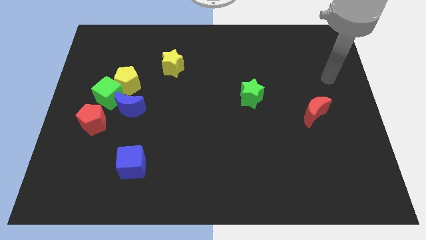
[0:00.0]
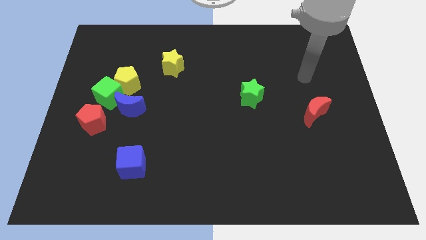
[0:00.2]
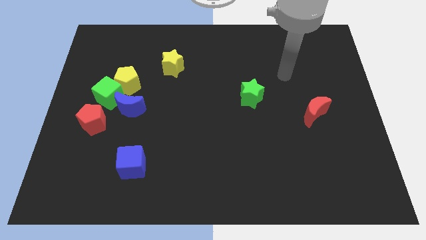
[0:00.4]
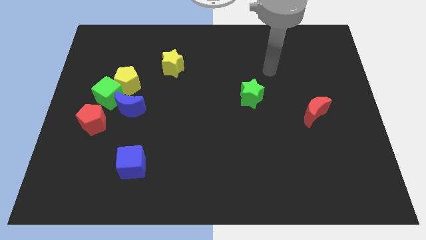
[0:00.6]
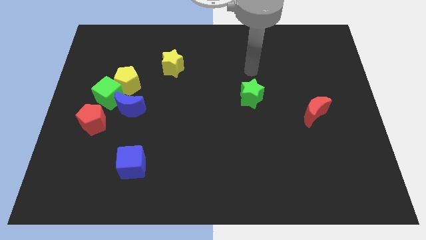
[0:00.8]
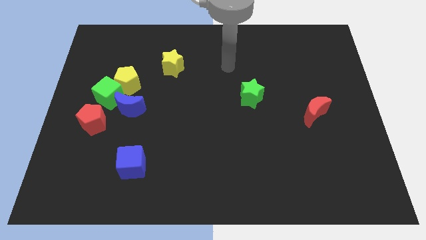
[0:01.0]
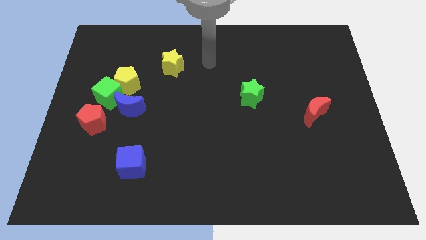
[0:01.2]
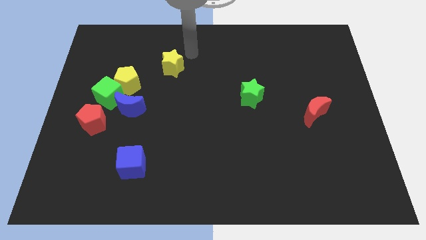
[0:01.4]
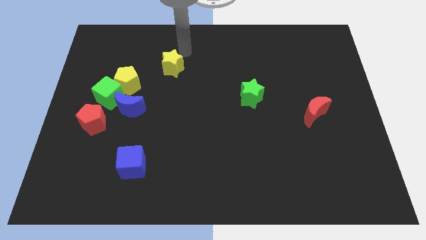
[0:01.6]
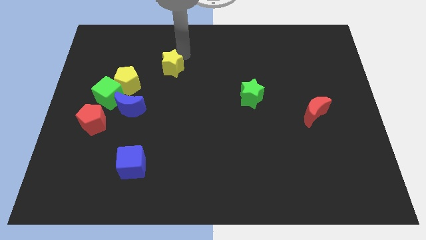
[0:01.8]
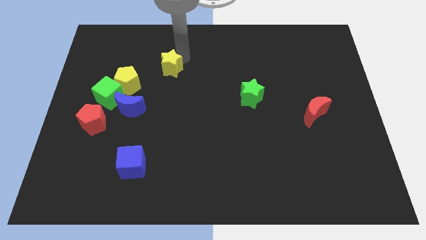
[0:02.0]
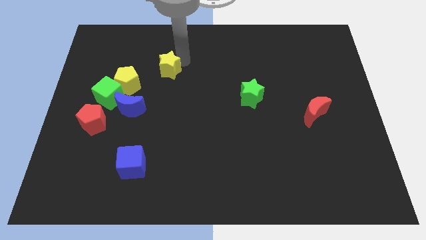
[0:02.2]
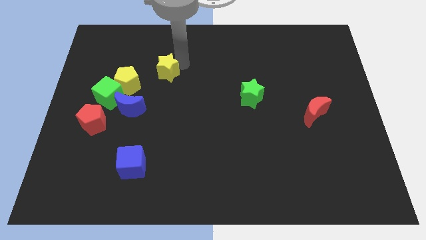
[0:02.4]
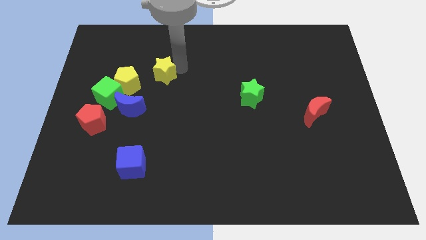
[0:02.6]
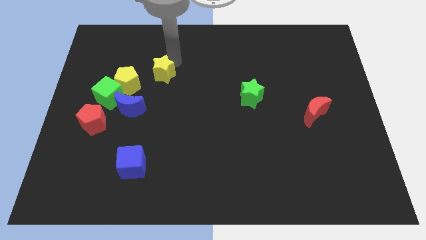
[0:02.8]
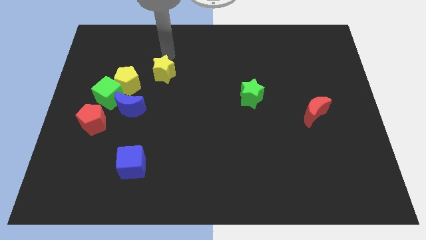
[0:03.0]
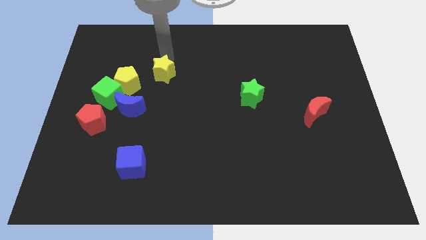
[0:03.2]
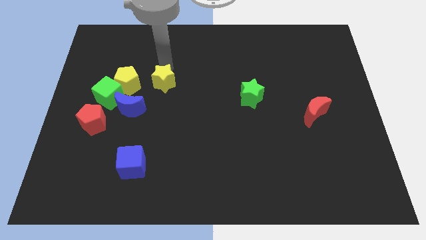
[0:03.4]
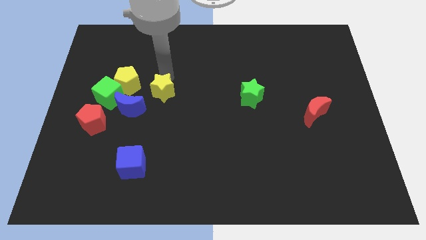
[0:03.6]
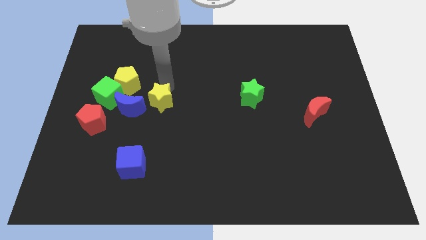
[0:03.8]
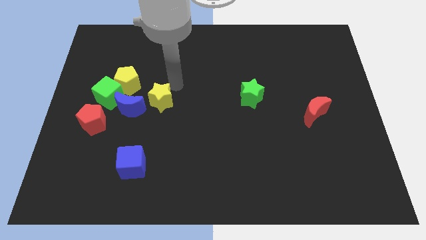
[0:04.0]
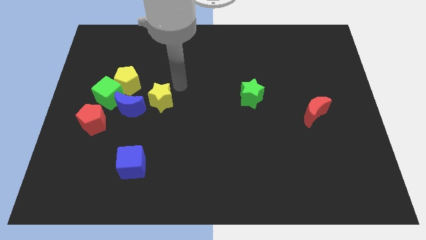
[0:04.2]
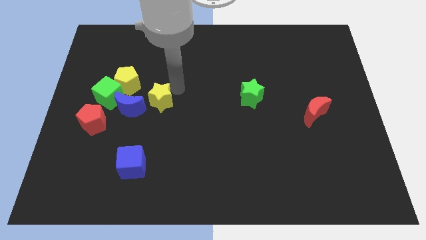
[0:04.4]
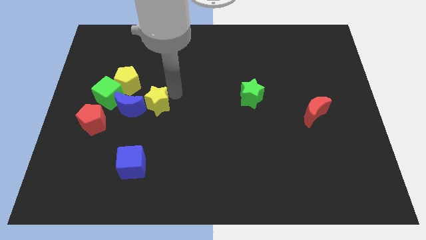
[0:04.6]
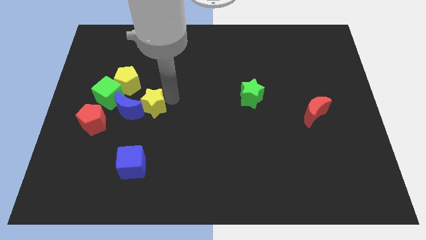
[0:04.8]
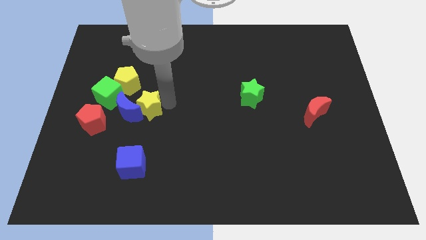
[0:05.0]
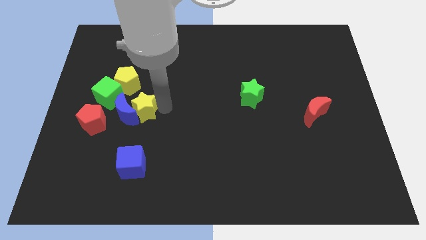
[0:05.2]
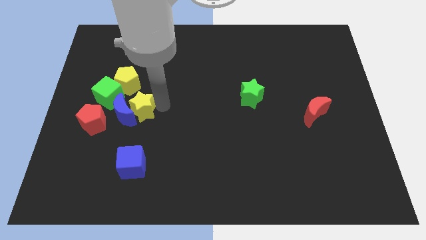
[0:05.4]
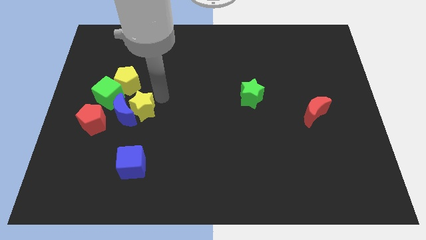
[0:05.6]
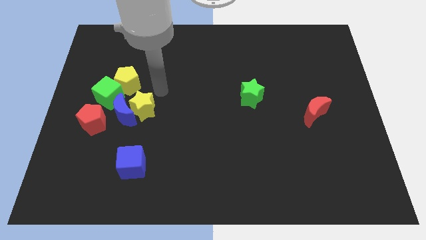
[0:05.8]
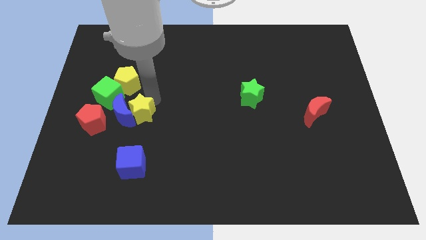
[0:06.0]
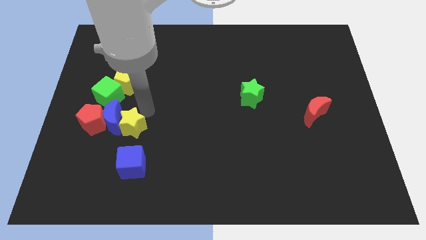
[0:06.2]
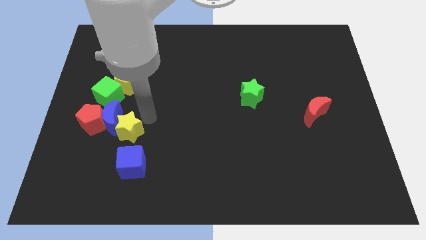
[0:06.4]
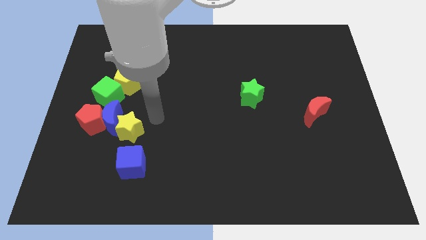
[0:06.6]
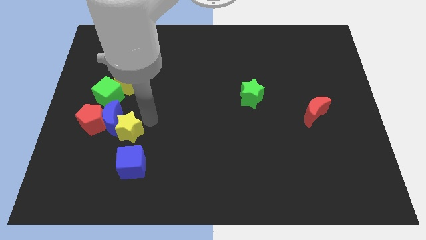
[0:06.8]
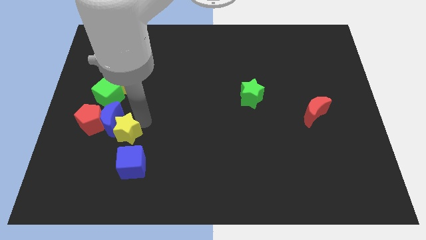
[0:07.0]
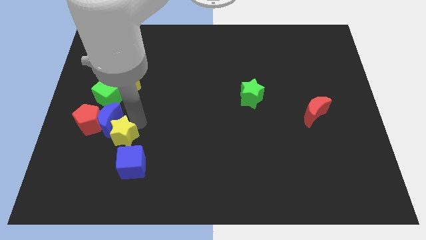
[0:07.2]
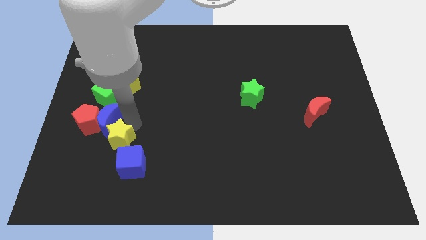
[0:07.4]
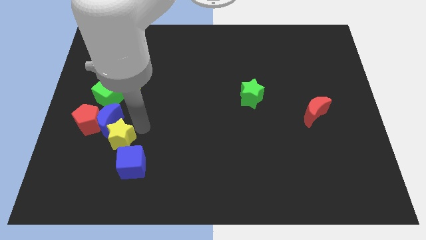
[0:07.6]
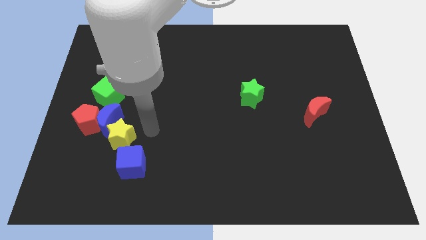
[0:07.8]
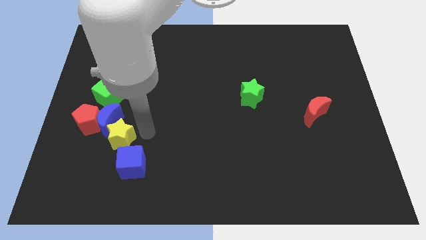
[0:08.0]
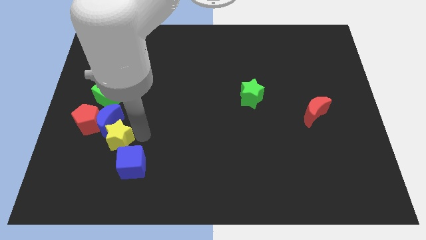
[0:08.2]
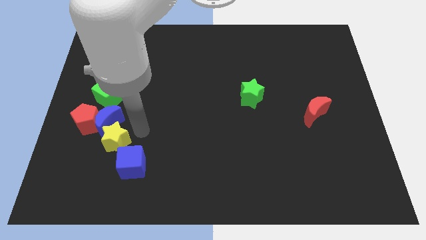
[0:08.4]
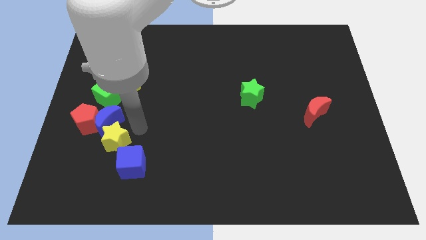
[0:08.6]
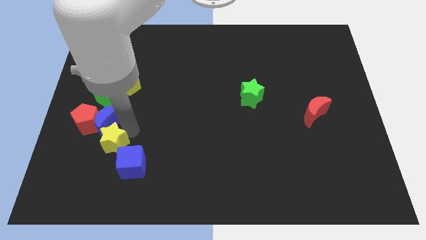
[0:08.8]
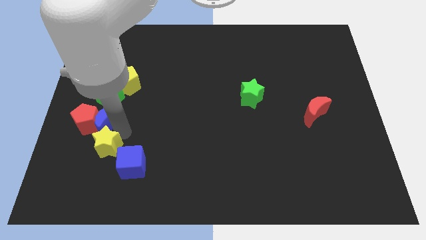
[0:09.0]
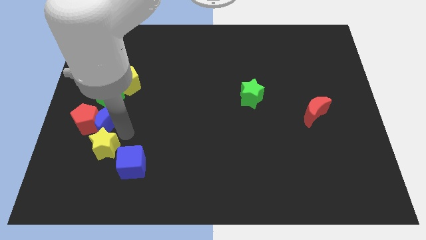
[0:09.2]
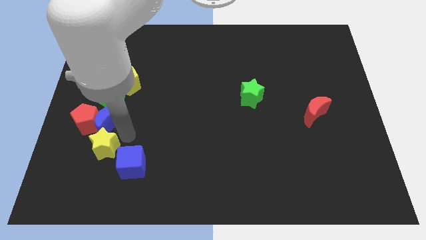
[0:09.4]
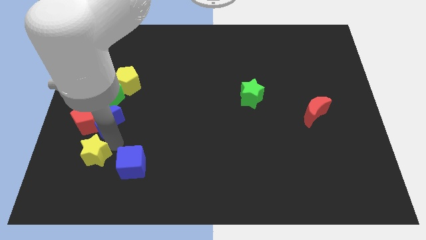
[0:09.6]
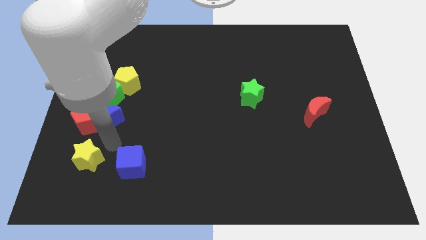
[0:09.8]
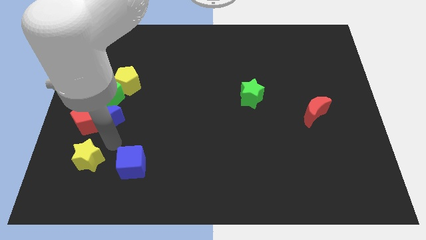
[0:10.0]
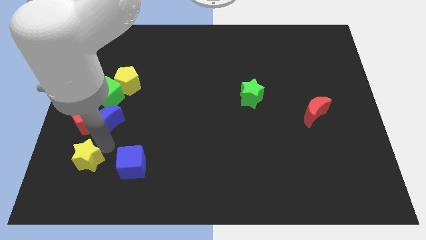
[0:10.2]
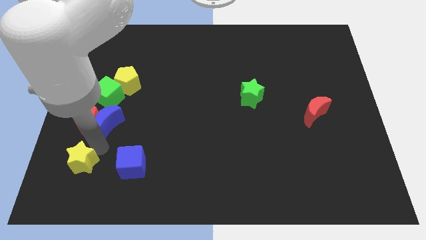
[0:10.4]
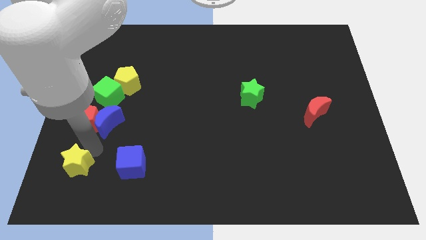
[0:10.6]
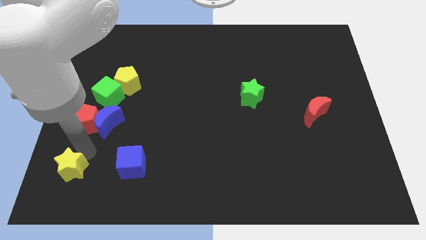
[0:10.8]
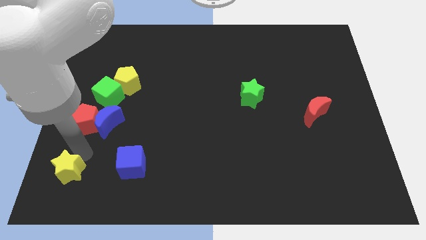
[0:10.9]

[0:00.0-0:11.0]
put the yellow star to the bottom left corner

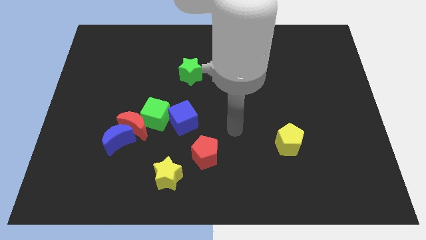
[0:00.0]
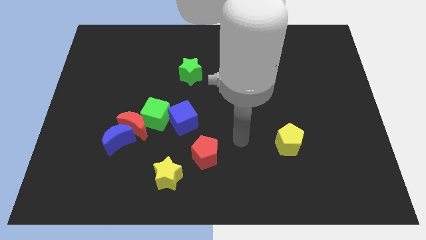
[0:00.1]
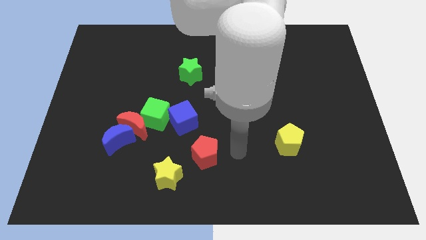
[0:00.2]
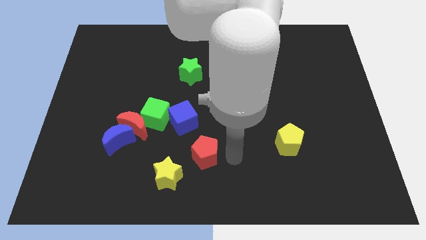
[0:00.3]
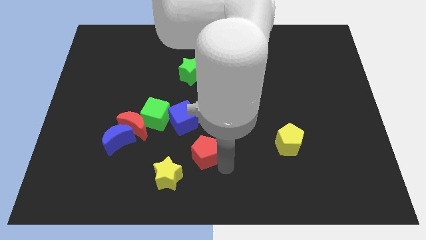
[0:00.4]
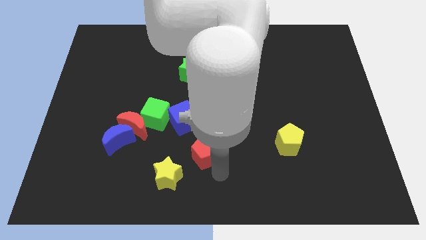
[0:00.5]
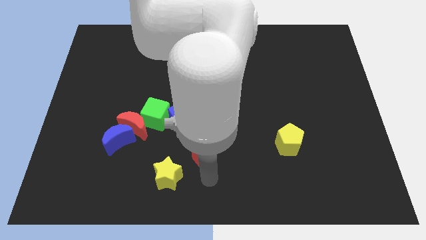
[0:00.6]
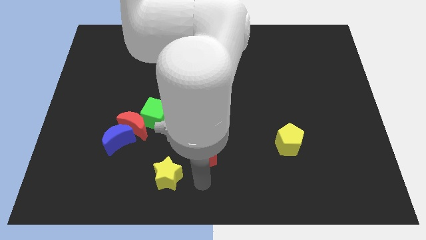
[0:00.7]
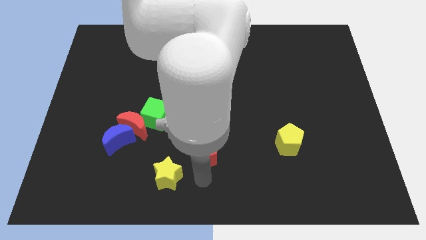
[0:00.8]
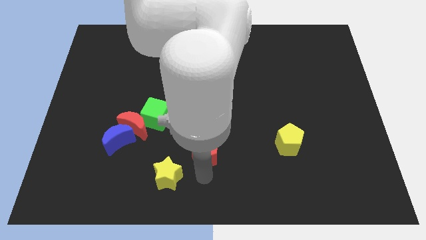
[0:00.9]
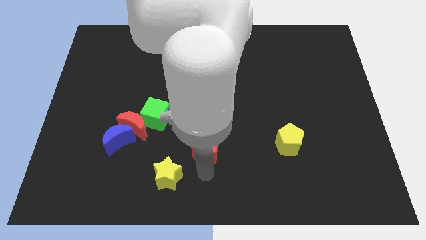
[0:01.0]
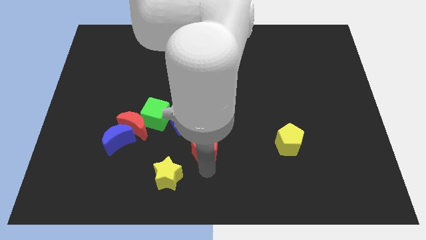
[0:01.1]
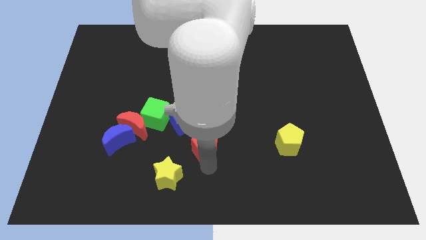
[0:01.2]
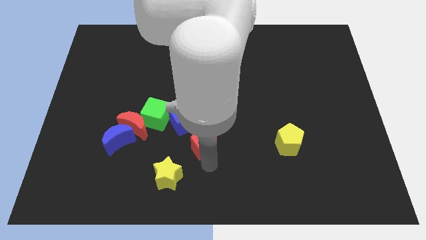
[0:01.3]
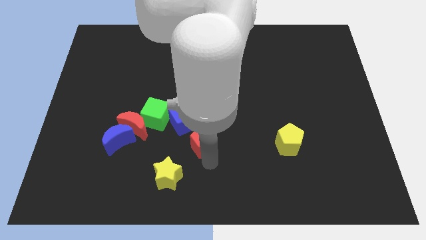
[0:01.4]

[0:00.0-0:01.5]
move the red pentagon to the middle
